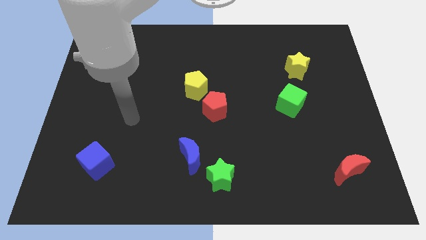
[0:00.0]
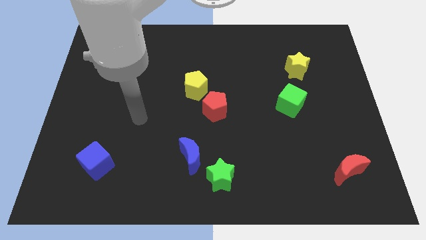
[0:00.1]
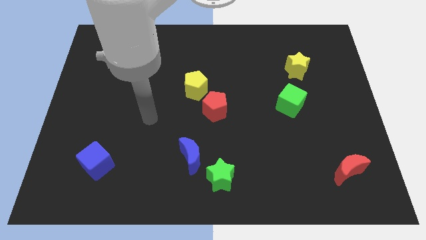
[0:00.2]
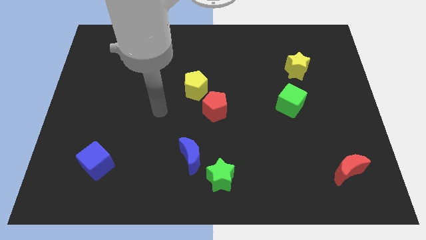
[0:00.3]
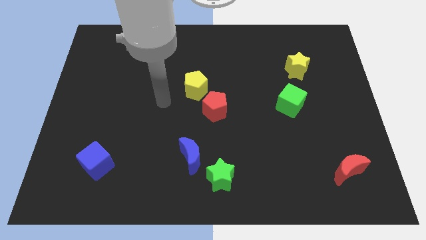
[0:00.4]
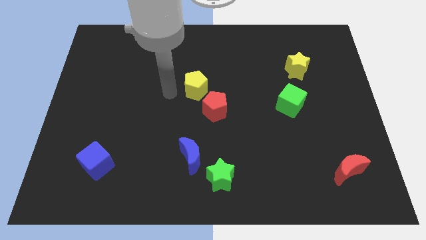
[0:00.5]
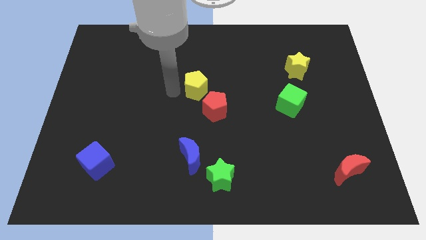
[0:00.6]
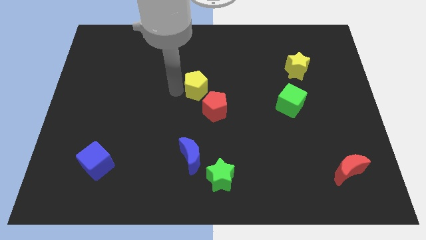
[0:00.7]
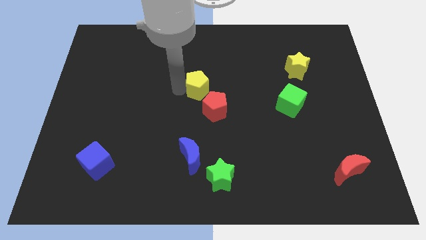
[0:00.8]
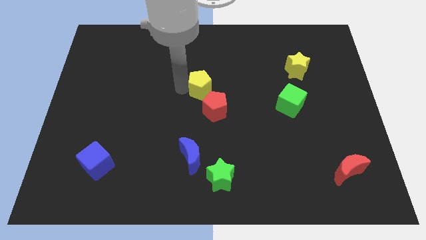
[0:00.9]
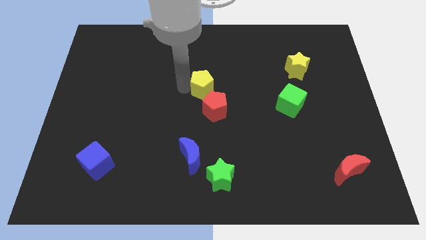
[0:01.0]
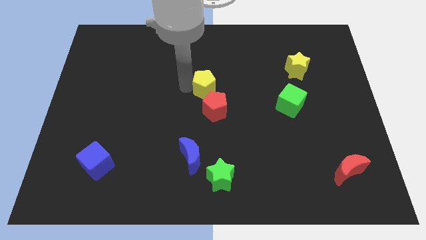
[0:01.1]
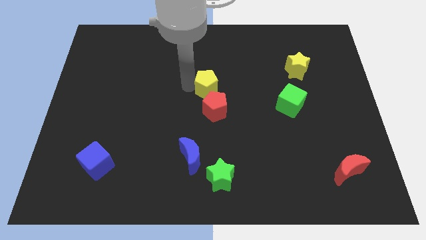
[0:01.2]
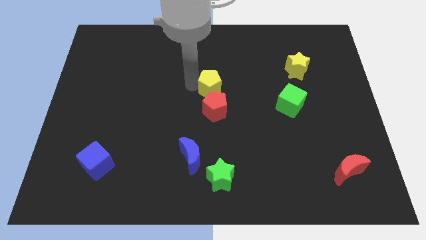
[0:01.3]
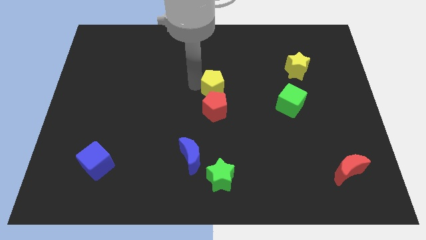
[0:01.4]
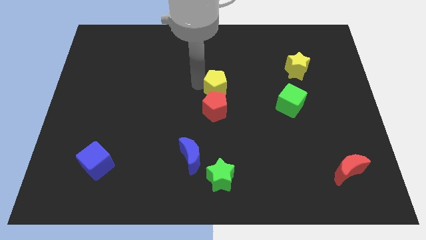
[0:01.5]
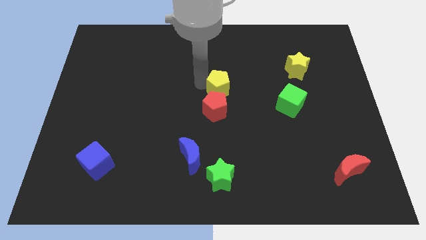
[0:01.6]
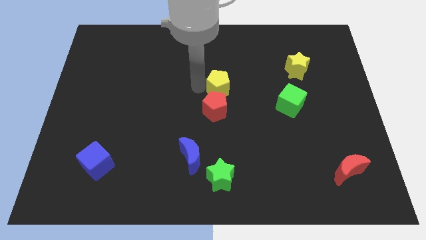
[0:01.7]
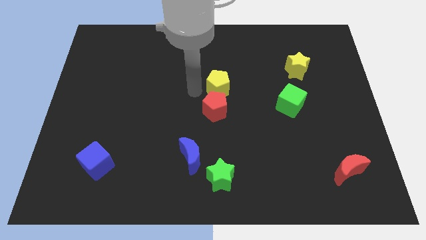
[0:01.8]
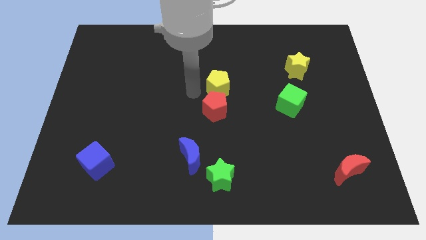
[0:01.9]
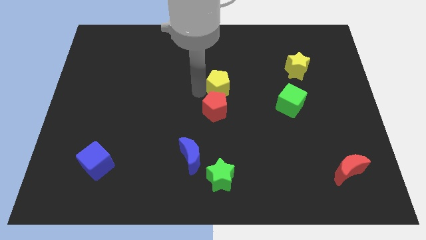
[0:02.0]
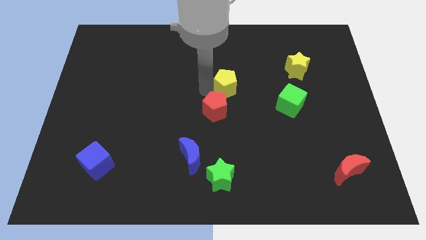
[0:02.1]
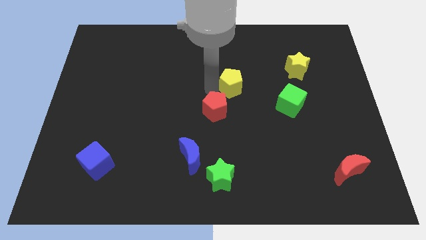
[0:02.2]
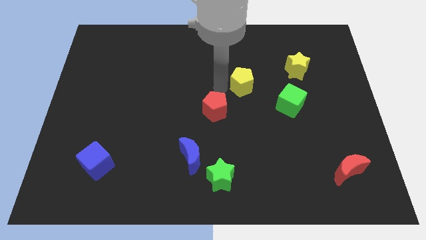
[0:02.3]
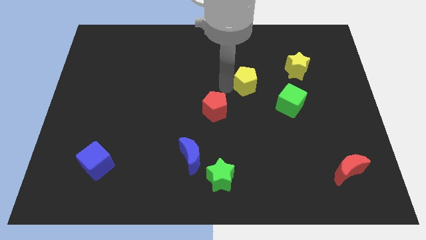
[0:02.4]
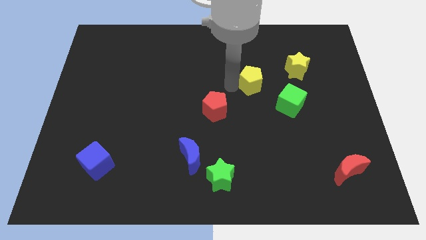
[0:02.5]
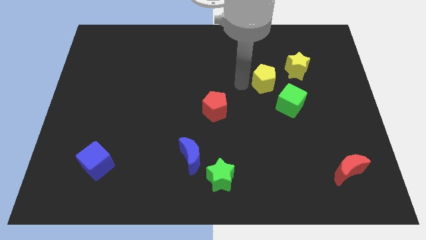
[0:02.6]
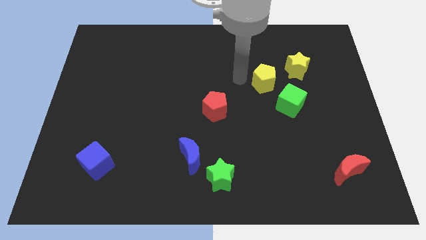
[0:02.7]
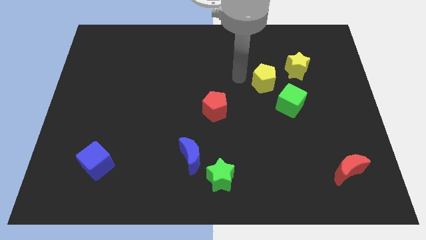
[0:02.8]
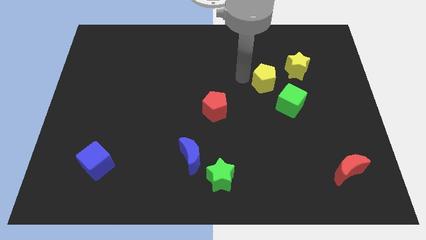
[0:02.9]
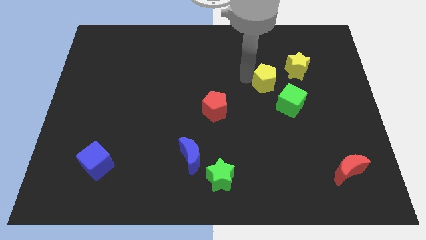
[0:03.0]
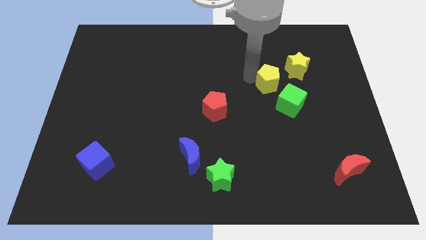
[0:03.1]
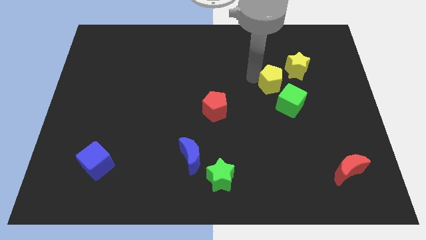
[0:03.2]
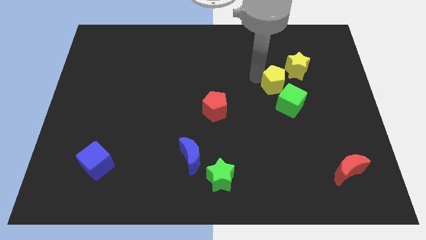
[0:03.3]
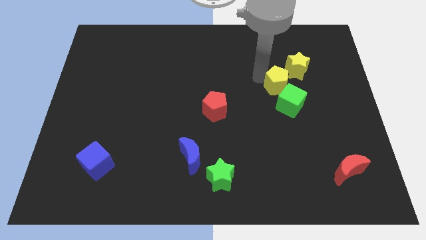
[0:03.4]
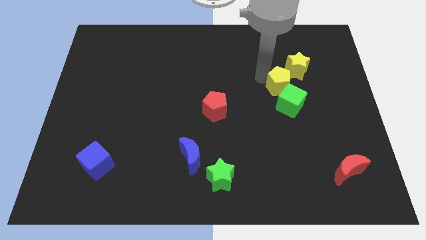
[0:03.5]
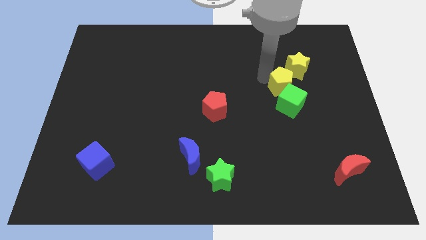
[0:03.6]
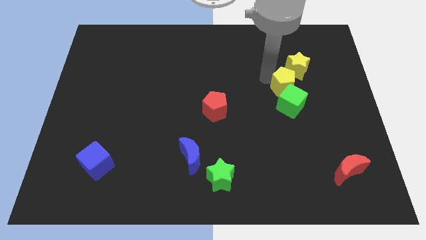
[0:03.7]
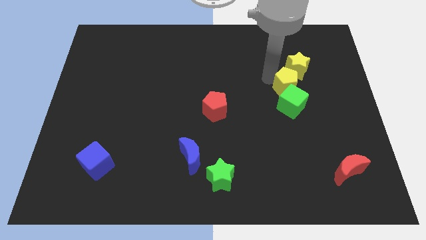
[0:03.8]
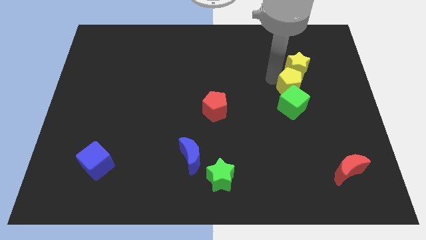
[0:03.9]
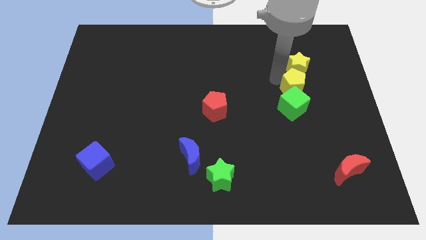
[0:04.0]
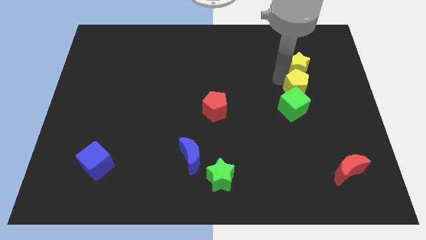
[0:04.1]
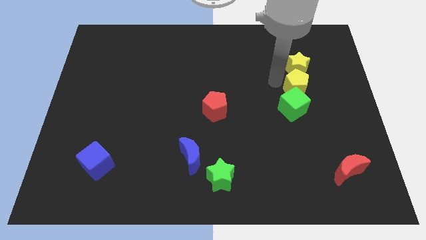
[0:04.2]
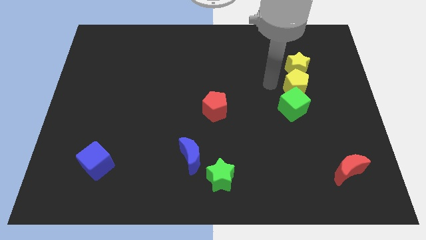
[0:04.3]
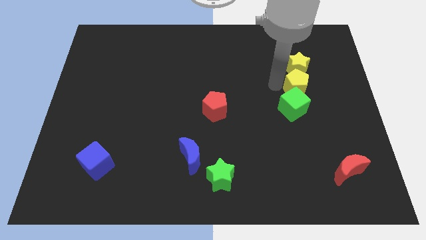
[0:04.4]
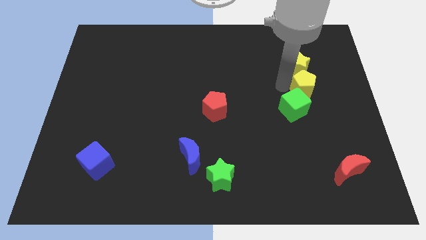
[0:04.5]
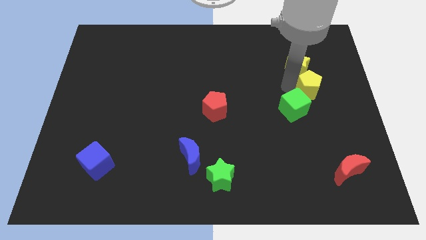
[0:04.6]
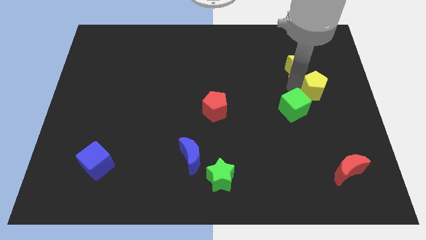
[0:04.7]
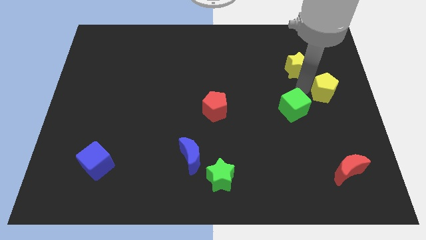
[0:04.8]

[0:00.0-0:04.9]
put the yellow pentagon to the center right

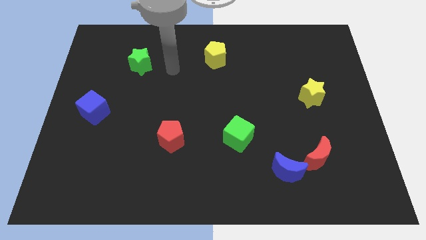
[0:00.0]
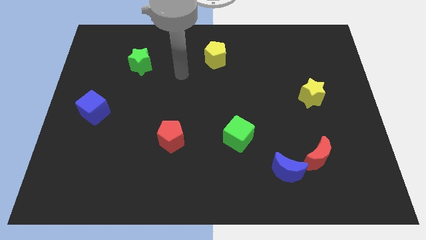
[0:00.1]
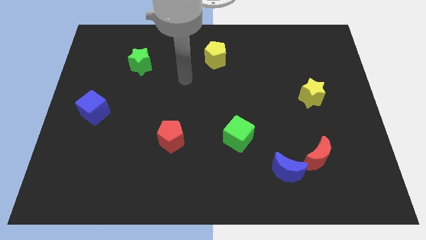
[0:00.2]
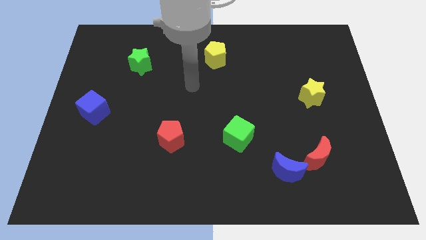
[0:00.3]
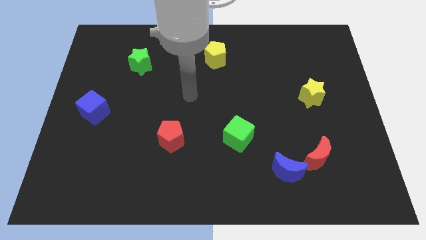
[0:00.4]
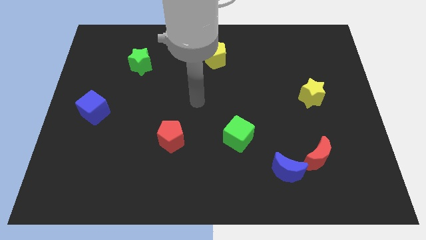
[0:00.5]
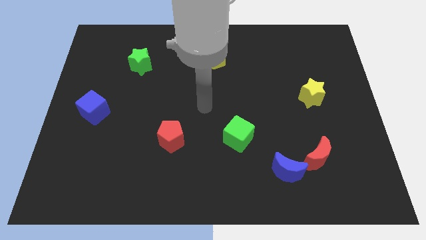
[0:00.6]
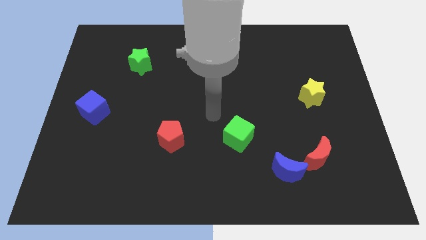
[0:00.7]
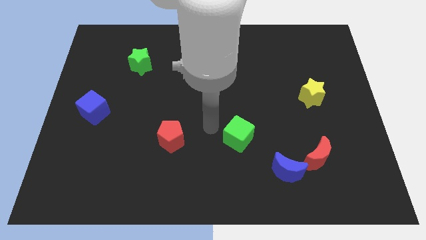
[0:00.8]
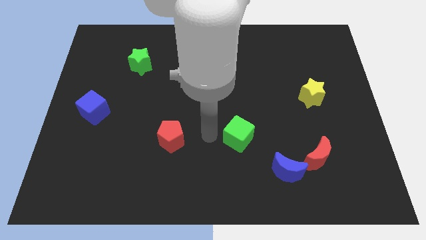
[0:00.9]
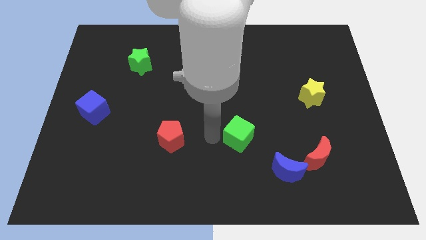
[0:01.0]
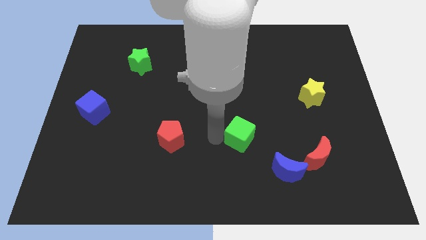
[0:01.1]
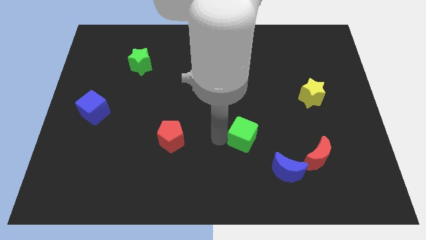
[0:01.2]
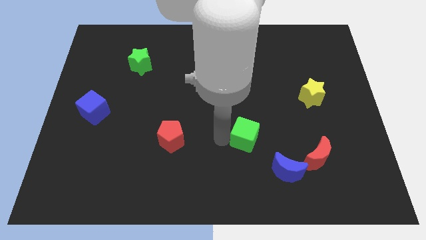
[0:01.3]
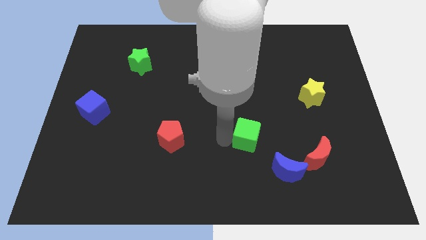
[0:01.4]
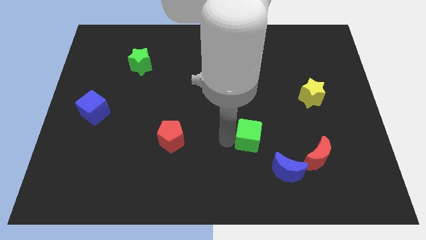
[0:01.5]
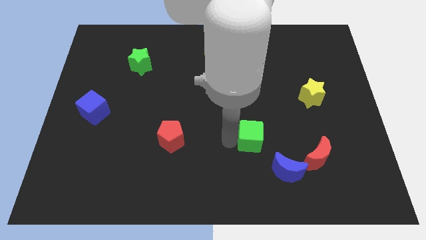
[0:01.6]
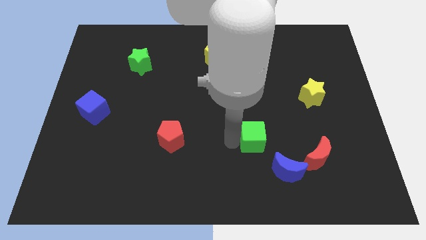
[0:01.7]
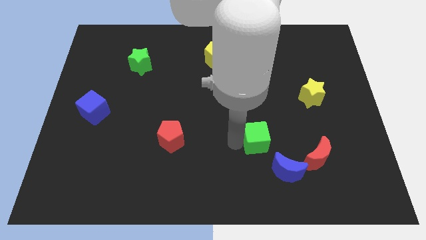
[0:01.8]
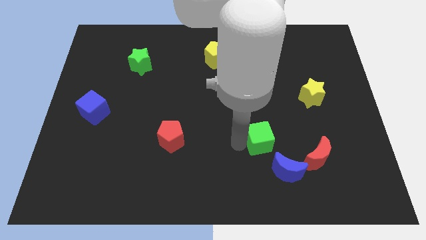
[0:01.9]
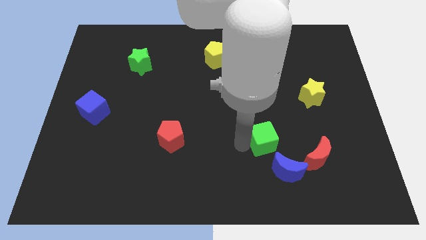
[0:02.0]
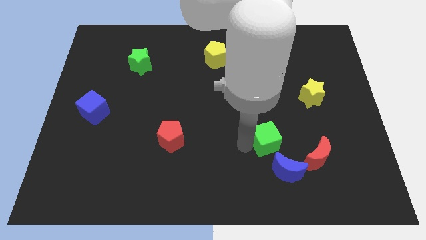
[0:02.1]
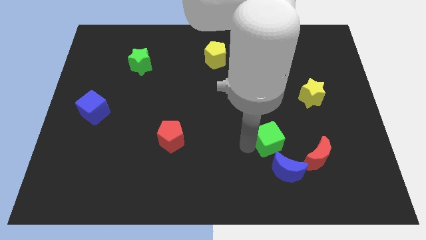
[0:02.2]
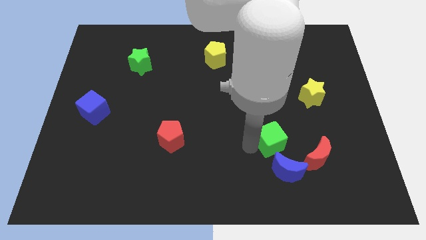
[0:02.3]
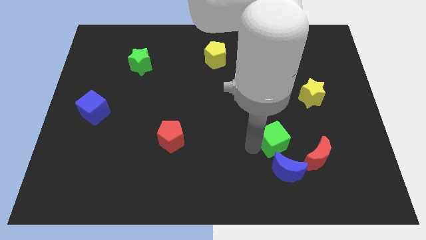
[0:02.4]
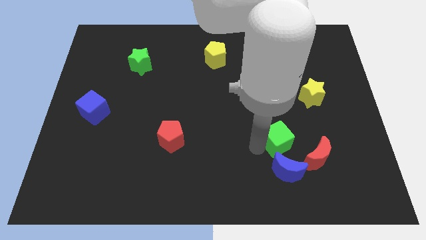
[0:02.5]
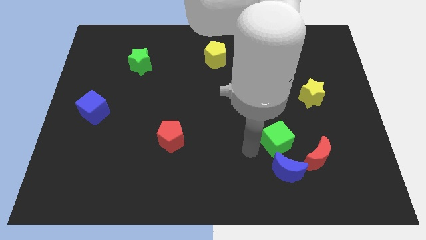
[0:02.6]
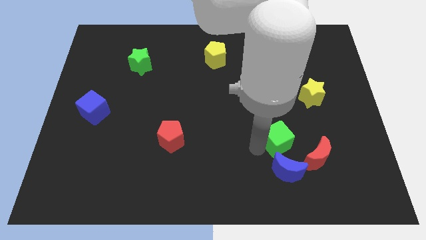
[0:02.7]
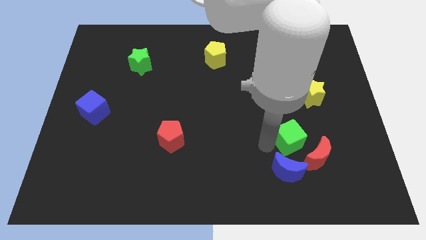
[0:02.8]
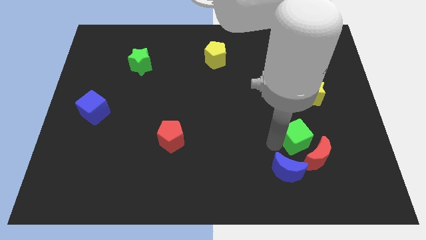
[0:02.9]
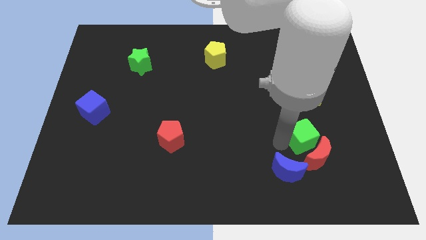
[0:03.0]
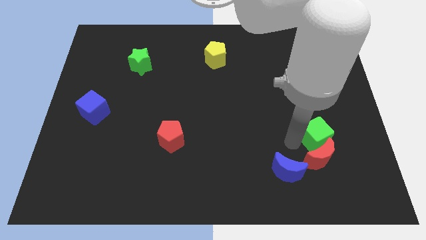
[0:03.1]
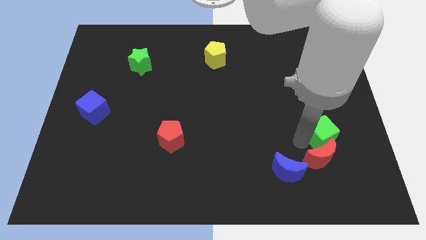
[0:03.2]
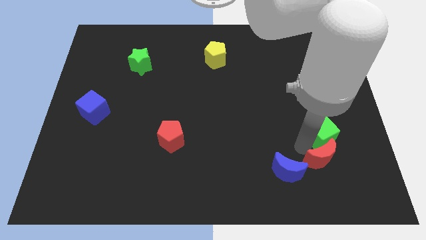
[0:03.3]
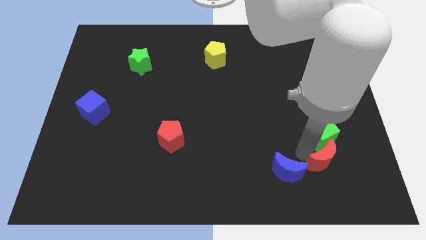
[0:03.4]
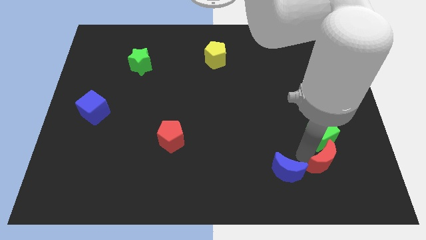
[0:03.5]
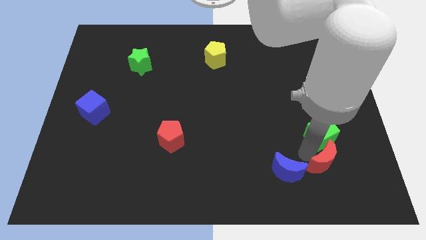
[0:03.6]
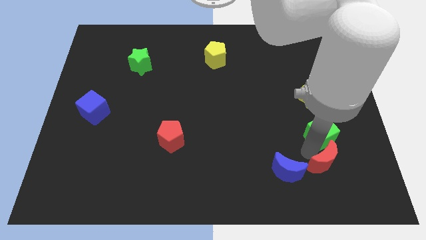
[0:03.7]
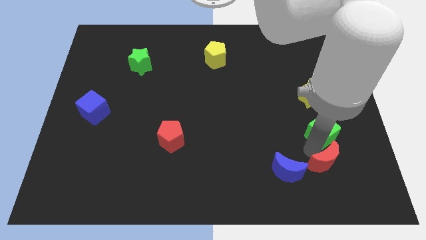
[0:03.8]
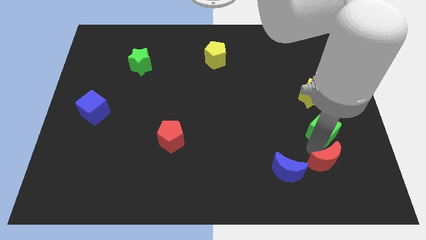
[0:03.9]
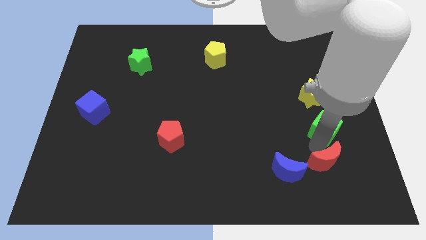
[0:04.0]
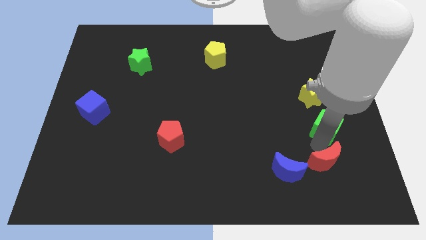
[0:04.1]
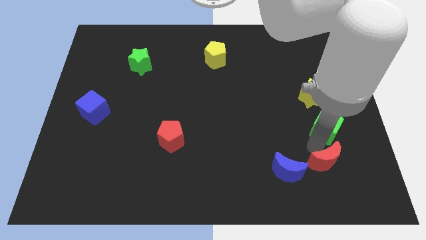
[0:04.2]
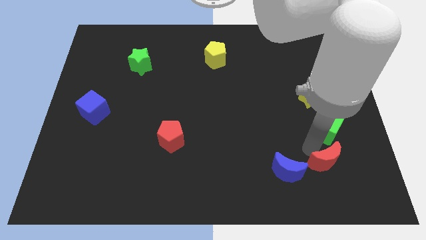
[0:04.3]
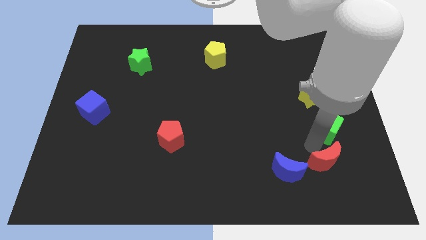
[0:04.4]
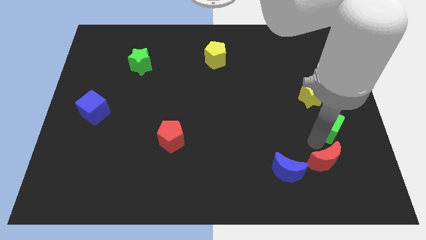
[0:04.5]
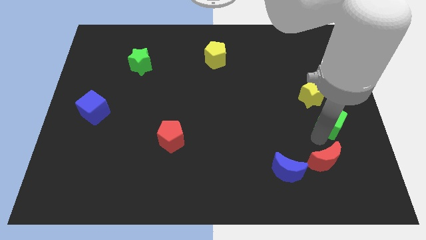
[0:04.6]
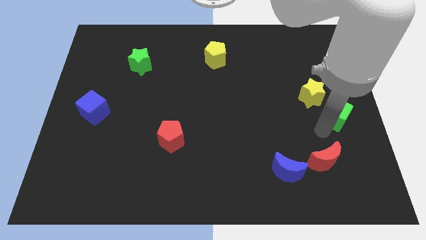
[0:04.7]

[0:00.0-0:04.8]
move the green cube to the right side
